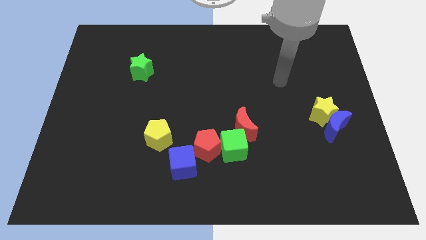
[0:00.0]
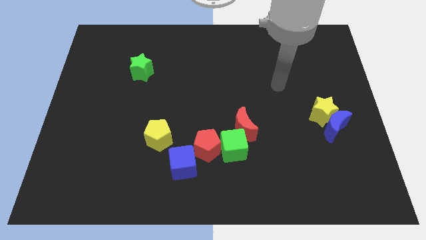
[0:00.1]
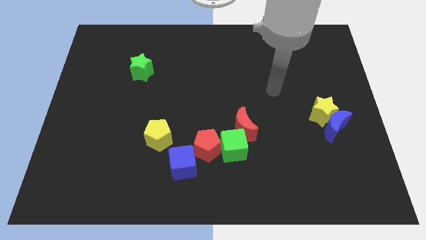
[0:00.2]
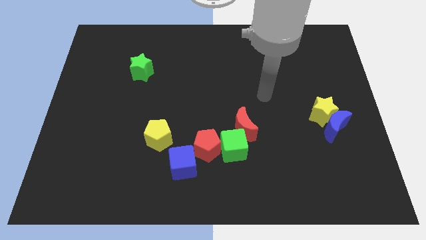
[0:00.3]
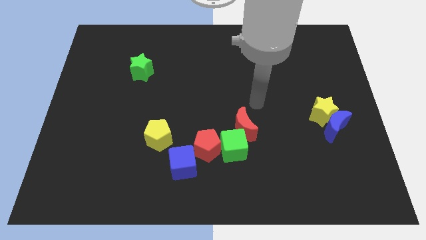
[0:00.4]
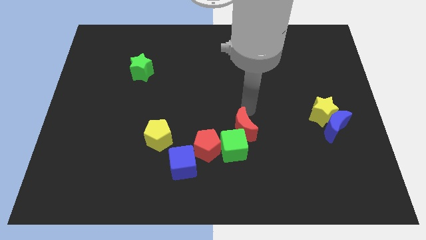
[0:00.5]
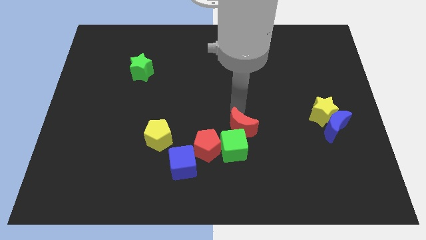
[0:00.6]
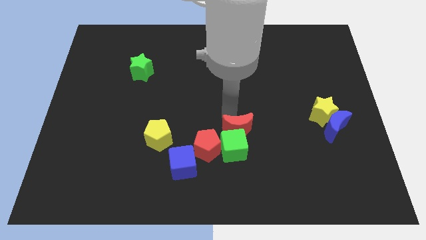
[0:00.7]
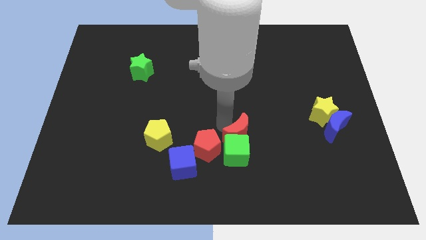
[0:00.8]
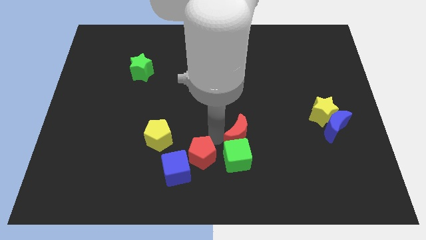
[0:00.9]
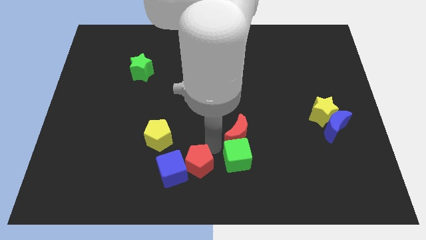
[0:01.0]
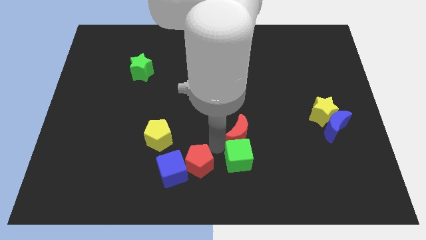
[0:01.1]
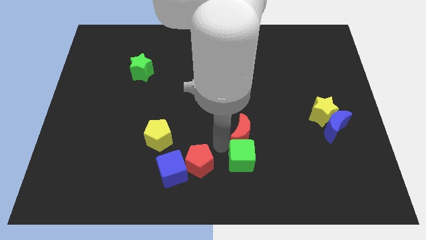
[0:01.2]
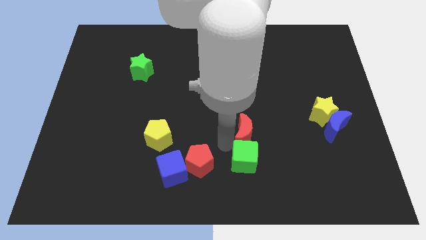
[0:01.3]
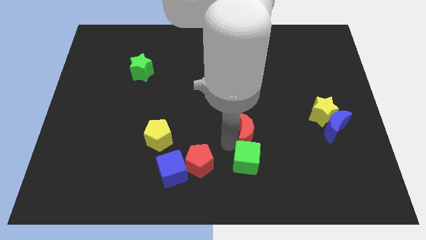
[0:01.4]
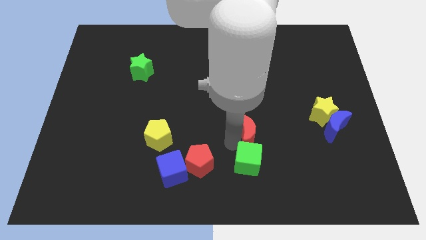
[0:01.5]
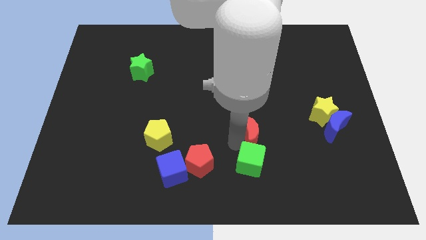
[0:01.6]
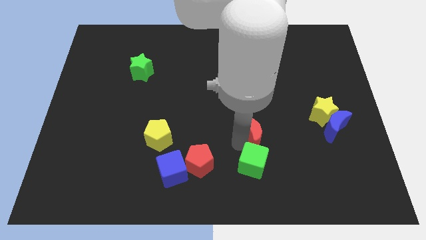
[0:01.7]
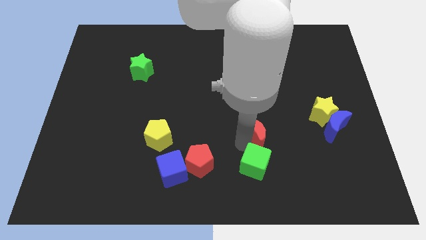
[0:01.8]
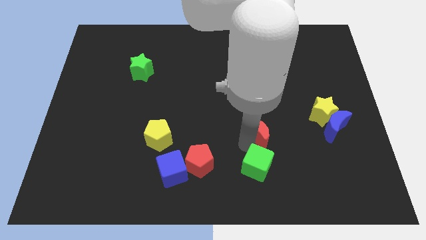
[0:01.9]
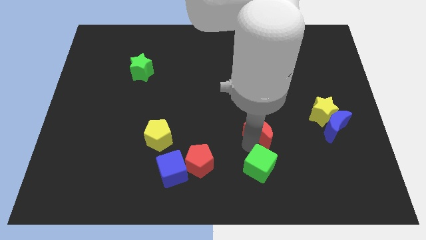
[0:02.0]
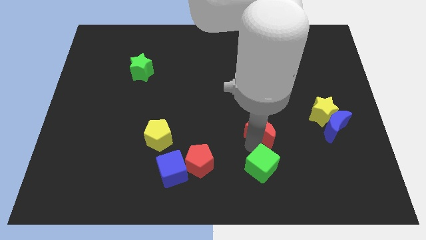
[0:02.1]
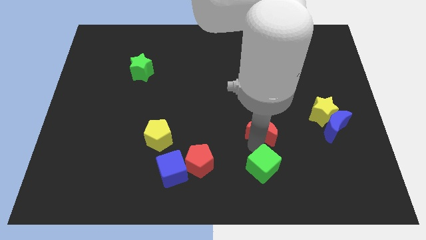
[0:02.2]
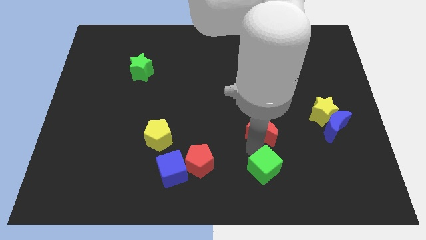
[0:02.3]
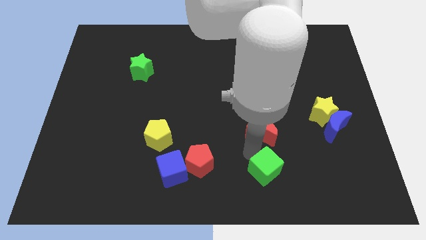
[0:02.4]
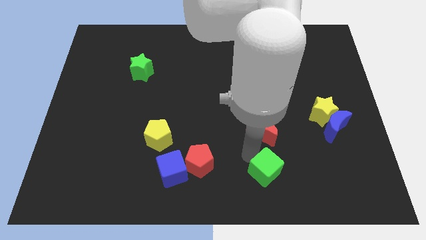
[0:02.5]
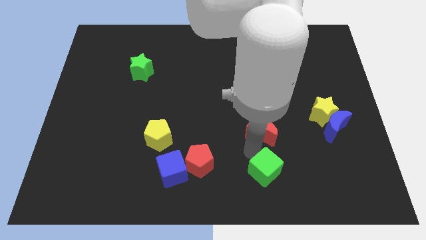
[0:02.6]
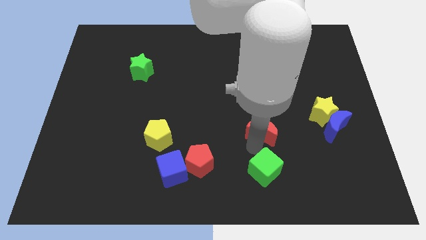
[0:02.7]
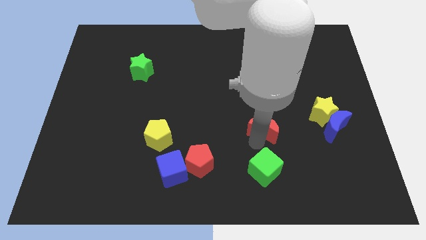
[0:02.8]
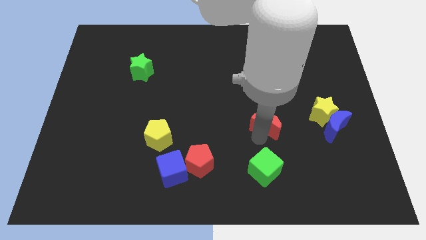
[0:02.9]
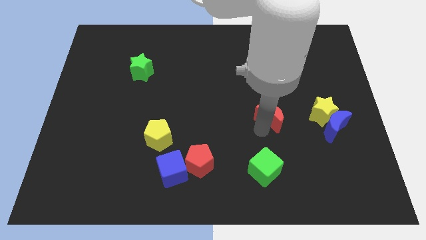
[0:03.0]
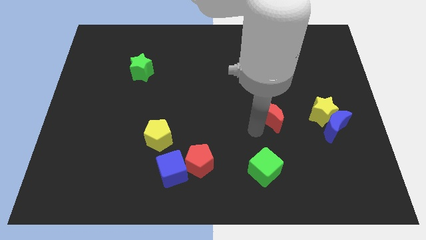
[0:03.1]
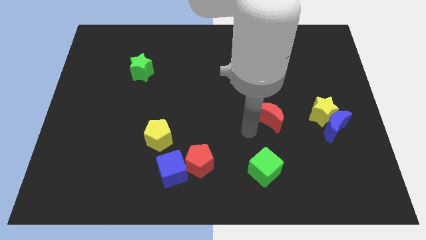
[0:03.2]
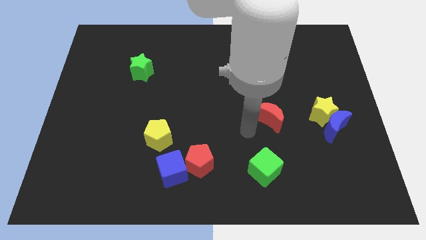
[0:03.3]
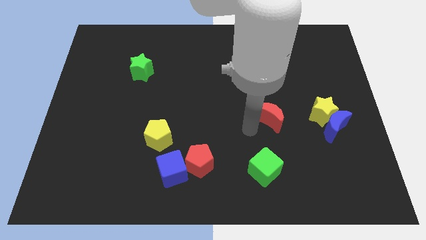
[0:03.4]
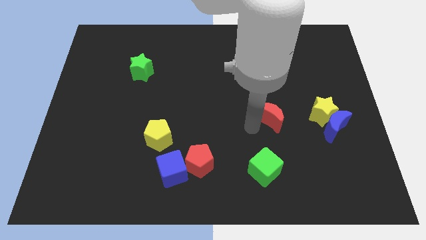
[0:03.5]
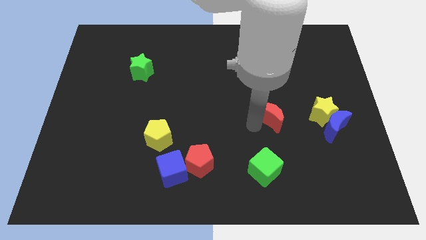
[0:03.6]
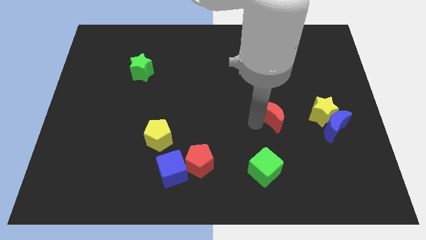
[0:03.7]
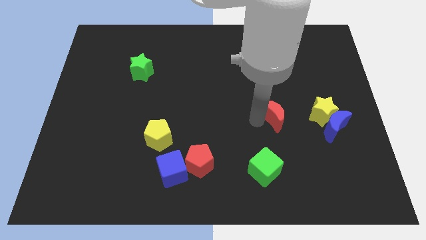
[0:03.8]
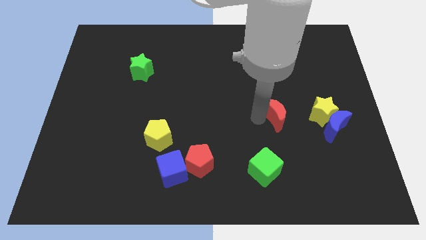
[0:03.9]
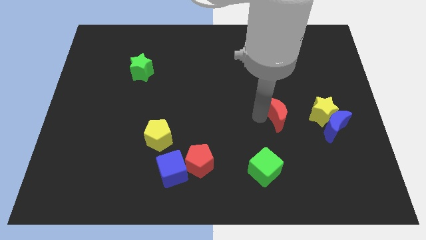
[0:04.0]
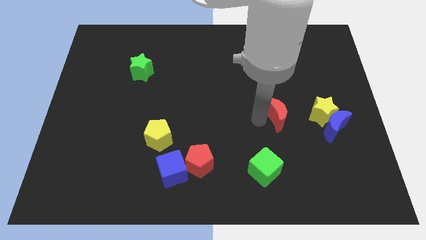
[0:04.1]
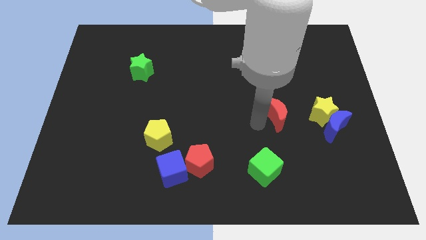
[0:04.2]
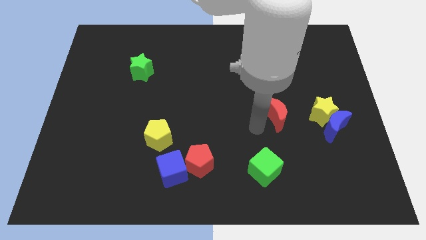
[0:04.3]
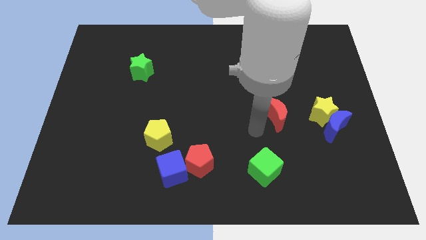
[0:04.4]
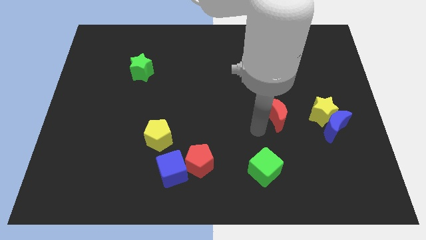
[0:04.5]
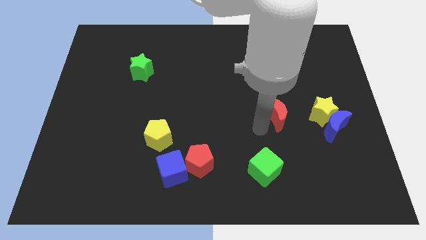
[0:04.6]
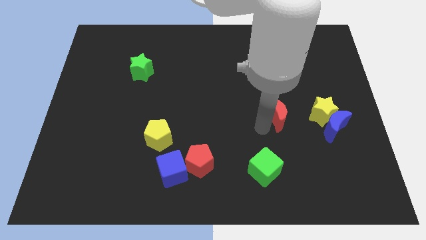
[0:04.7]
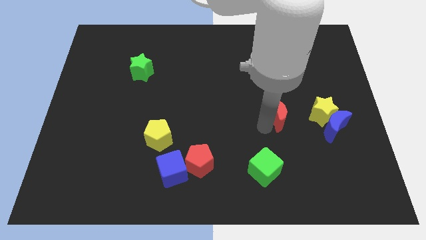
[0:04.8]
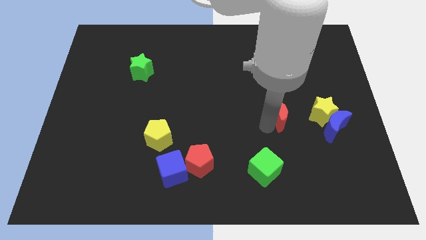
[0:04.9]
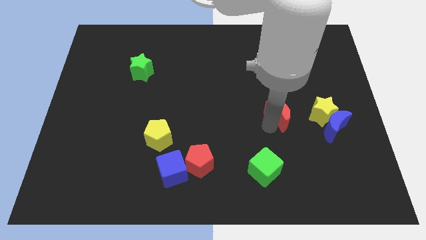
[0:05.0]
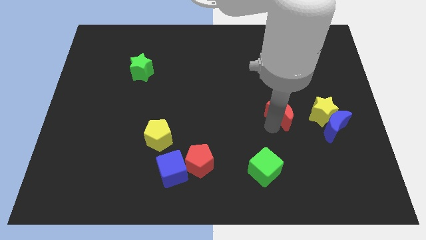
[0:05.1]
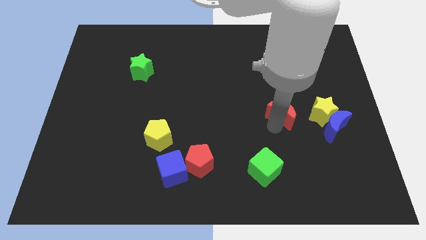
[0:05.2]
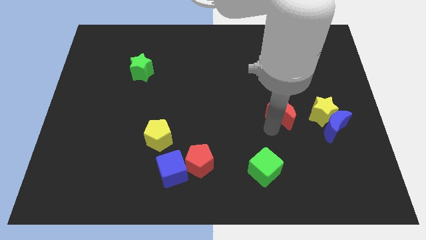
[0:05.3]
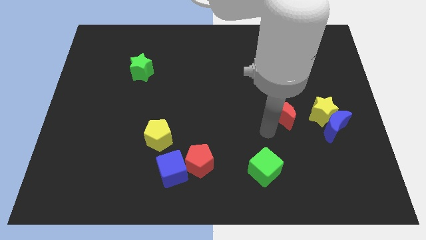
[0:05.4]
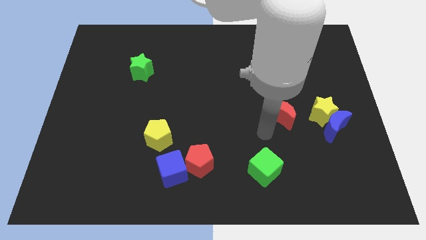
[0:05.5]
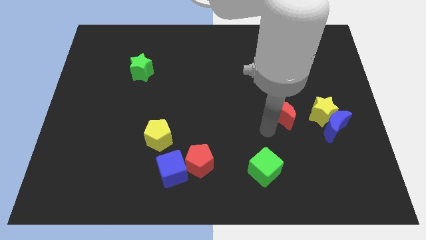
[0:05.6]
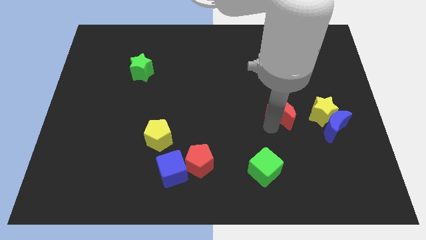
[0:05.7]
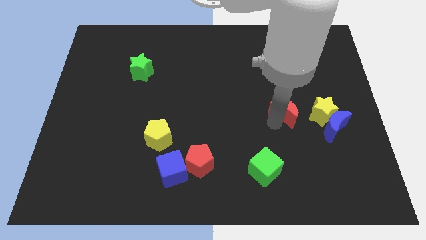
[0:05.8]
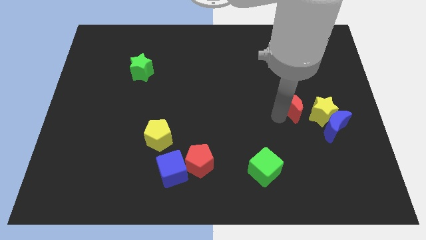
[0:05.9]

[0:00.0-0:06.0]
push the red moon to the top left of the blue moon

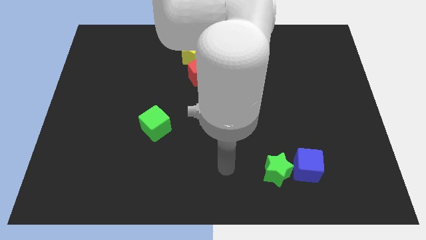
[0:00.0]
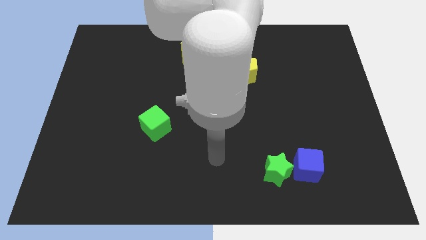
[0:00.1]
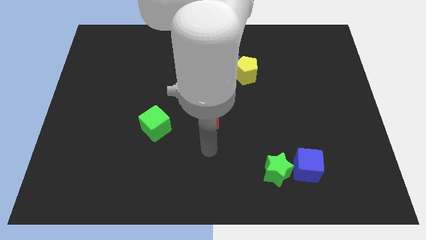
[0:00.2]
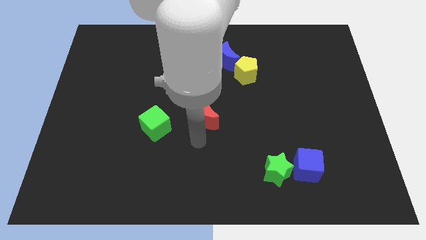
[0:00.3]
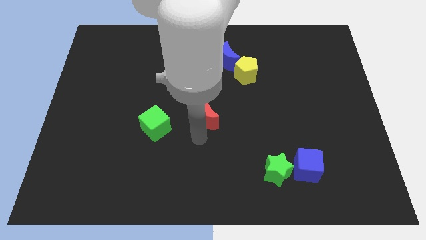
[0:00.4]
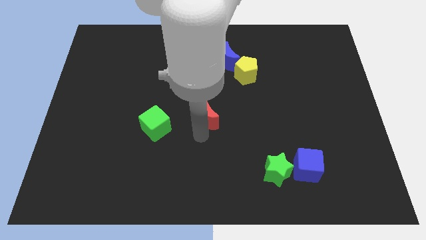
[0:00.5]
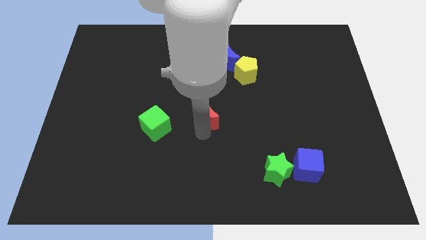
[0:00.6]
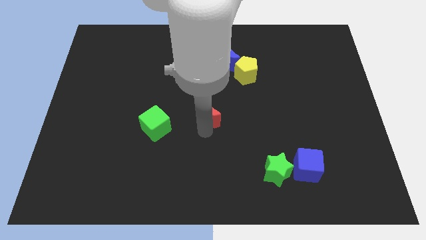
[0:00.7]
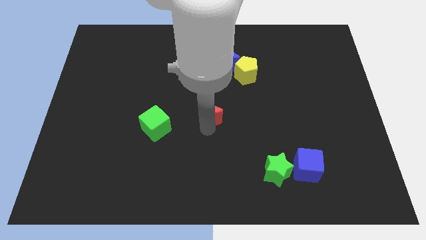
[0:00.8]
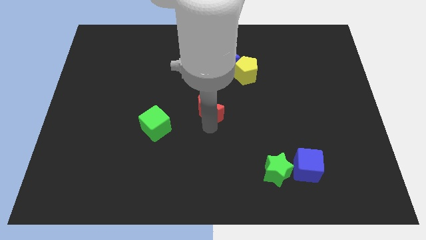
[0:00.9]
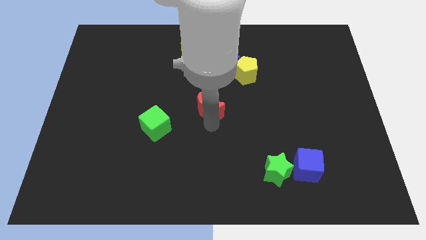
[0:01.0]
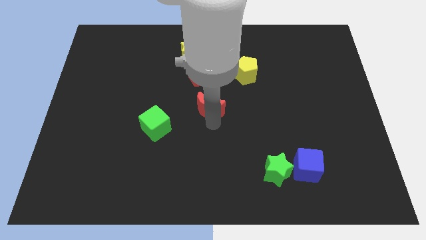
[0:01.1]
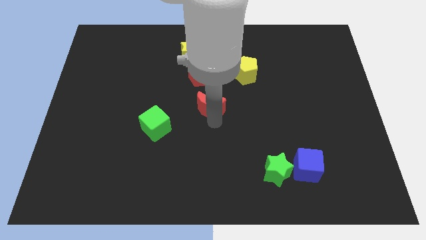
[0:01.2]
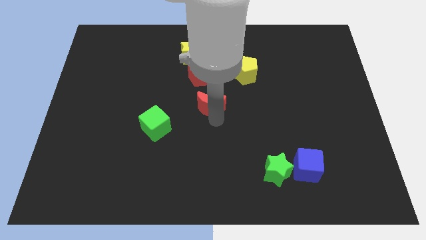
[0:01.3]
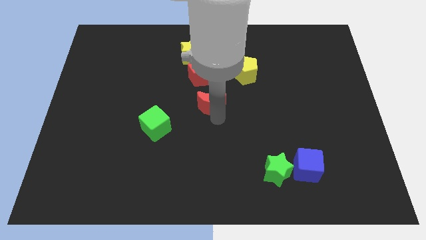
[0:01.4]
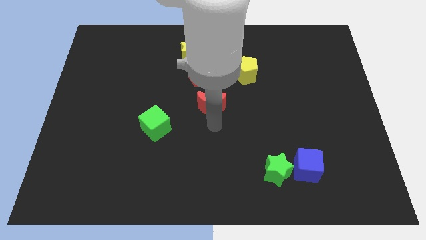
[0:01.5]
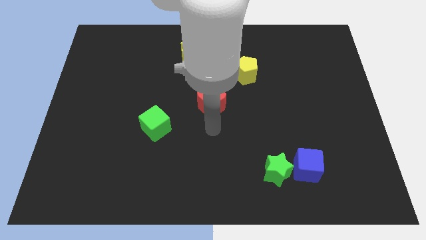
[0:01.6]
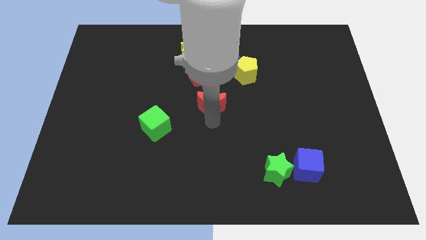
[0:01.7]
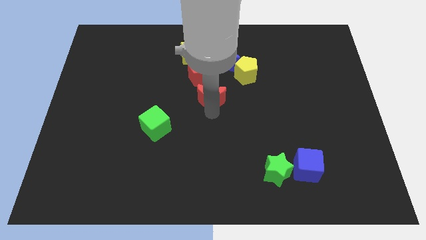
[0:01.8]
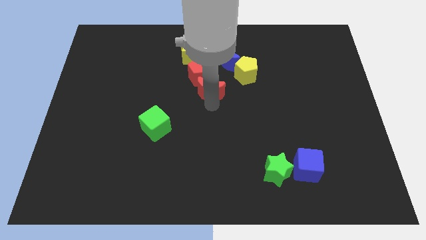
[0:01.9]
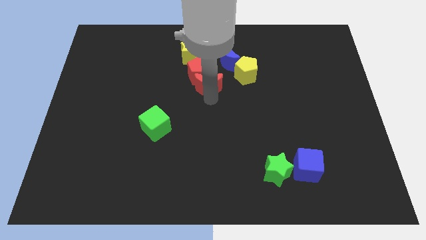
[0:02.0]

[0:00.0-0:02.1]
push the red moon to the bottom right of the yellow star

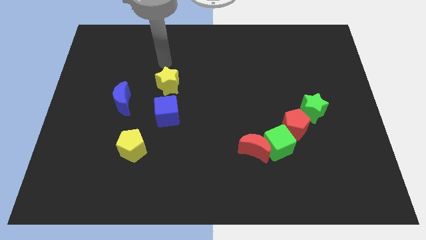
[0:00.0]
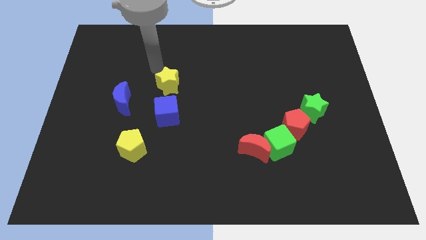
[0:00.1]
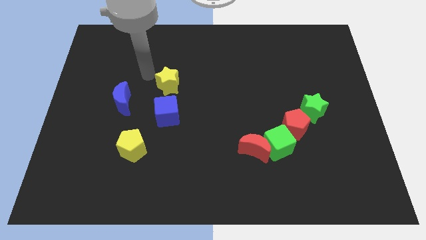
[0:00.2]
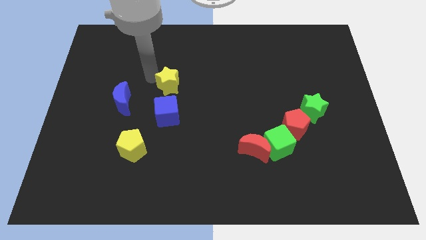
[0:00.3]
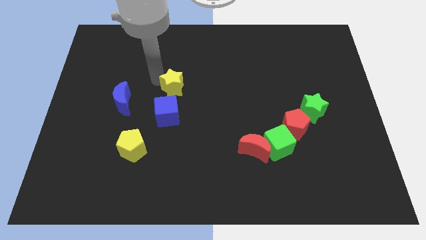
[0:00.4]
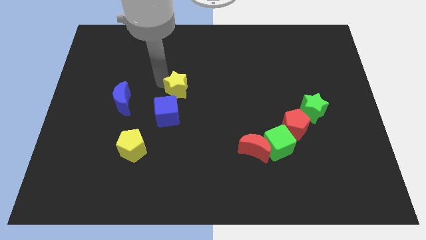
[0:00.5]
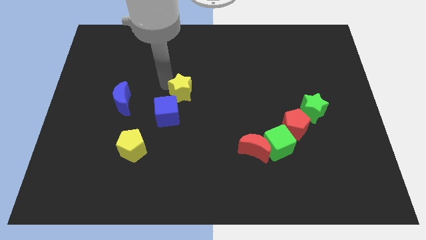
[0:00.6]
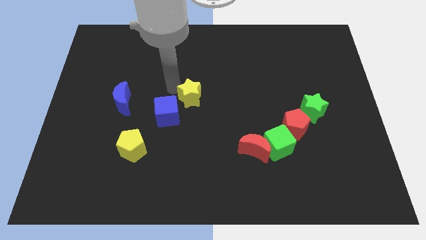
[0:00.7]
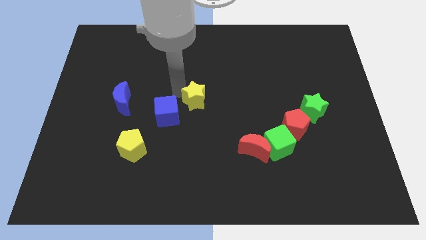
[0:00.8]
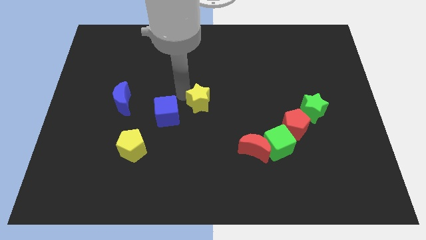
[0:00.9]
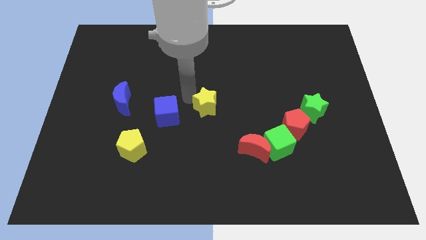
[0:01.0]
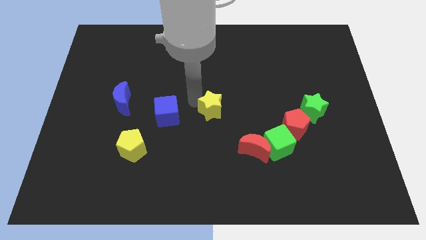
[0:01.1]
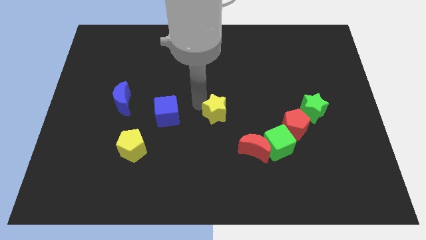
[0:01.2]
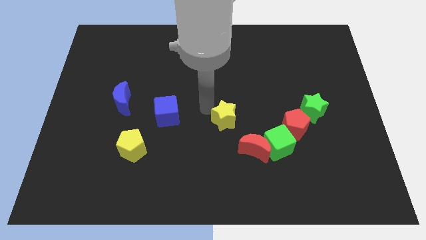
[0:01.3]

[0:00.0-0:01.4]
put the yellow star to the left side of the red pentagon
